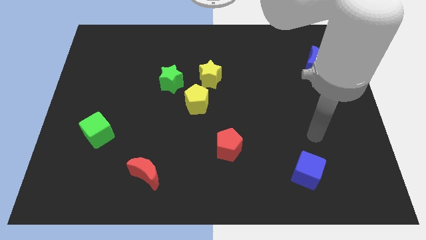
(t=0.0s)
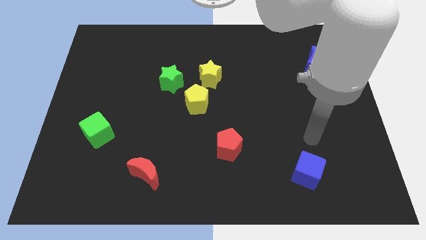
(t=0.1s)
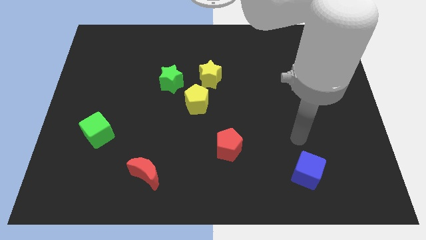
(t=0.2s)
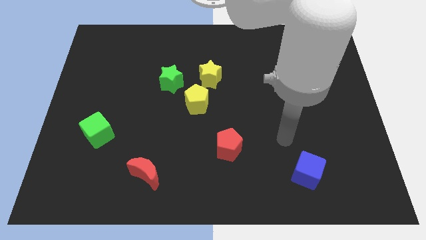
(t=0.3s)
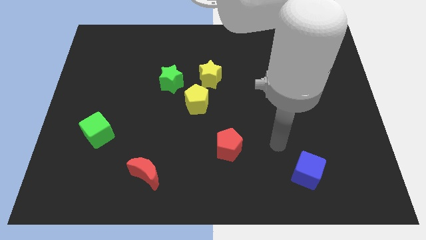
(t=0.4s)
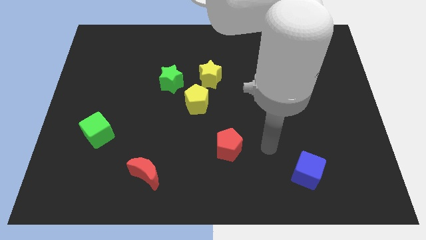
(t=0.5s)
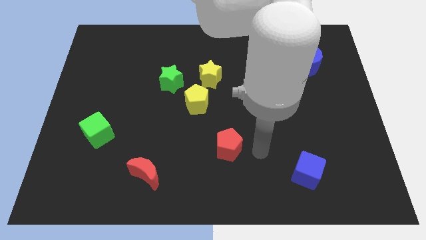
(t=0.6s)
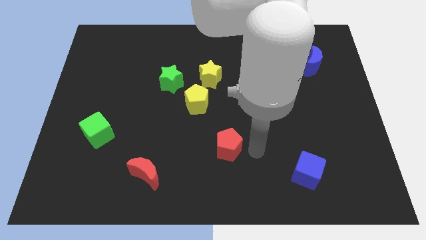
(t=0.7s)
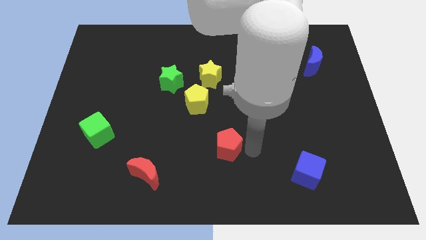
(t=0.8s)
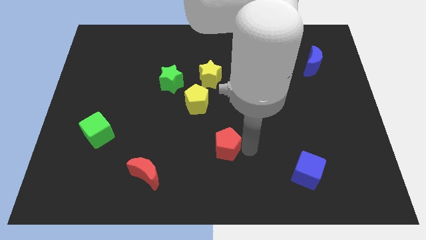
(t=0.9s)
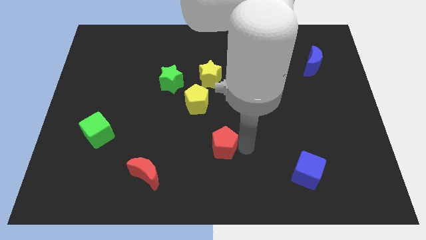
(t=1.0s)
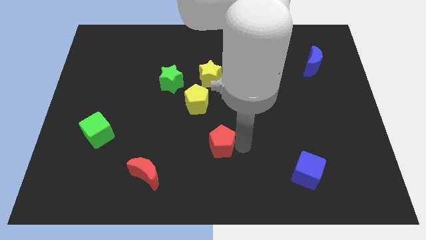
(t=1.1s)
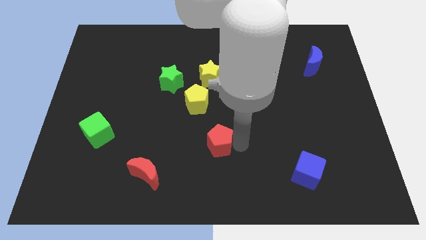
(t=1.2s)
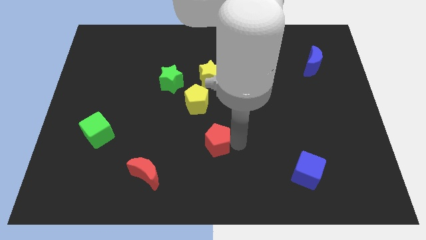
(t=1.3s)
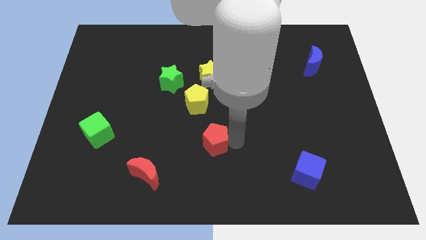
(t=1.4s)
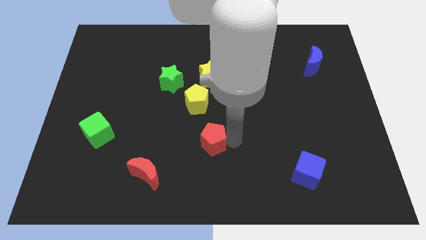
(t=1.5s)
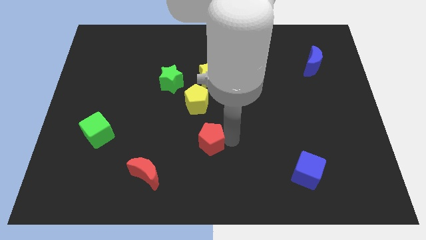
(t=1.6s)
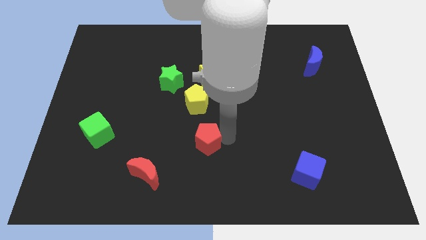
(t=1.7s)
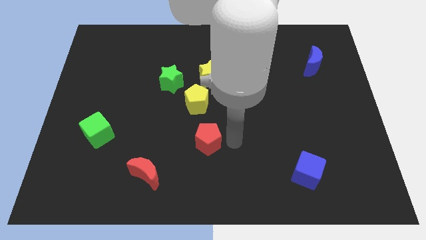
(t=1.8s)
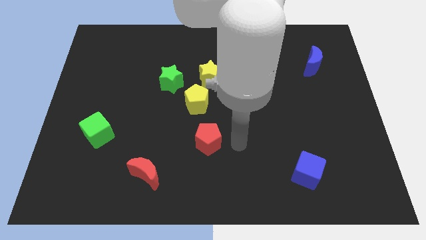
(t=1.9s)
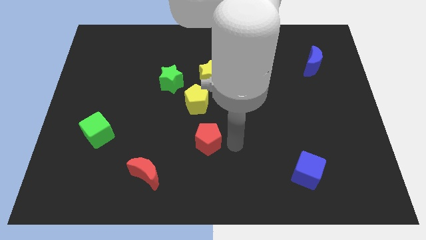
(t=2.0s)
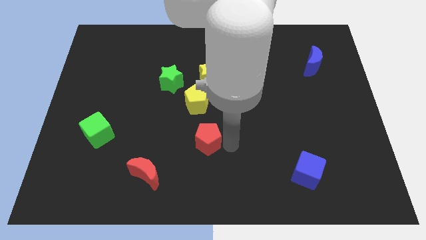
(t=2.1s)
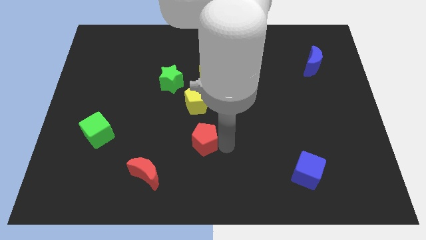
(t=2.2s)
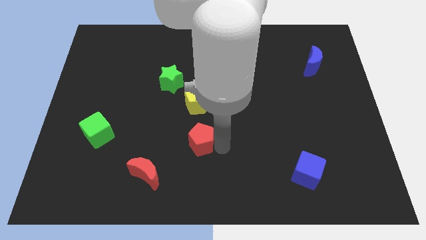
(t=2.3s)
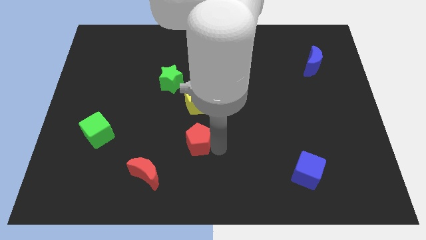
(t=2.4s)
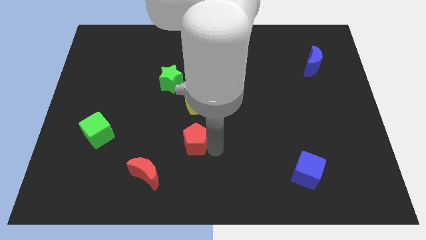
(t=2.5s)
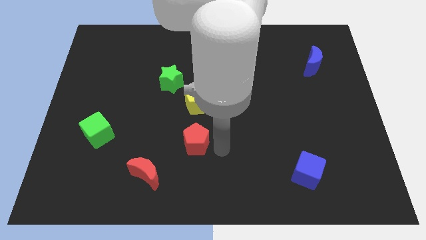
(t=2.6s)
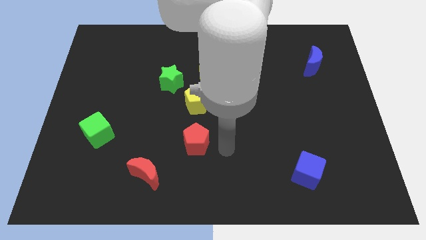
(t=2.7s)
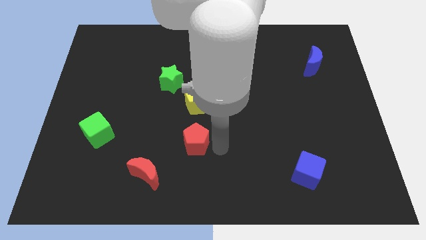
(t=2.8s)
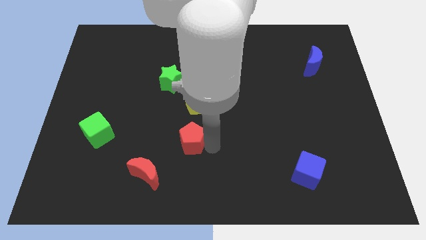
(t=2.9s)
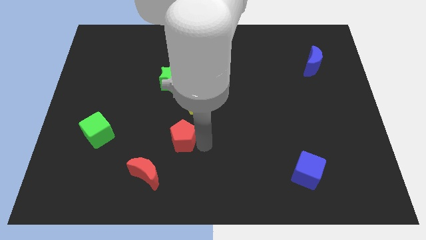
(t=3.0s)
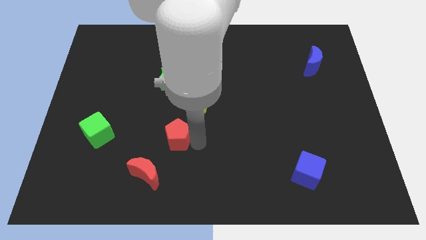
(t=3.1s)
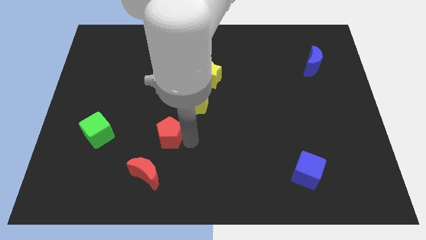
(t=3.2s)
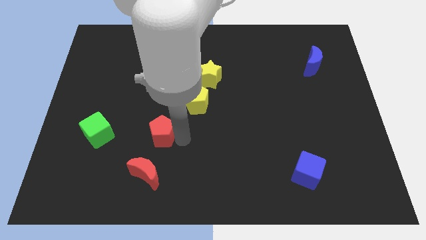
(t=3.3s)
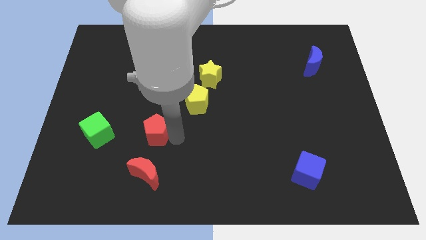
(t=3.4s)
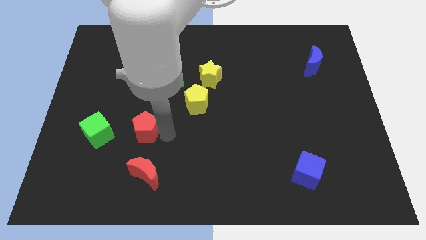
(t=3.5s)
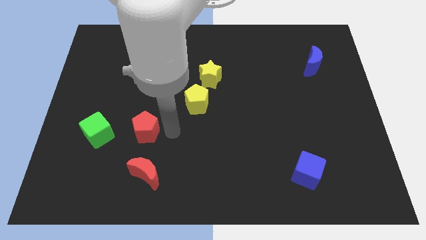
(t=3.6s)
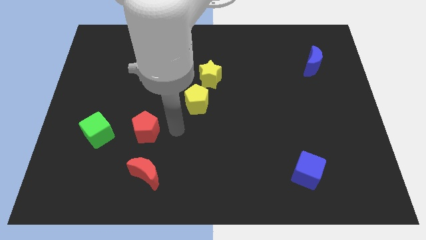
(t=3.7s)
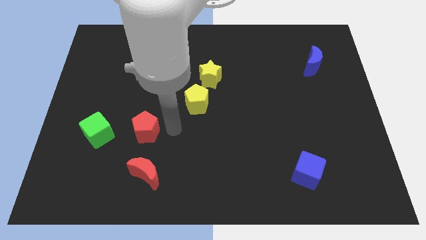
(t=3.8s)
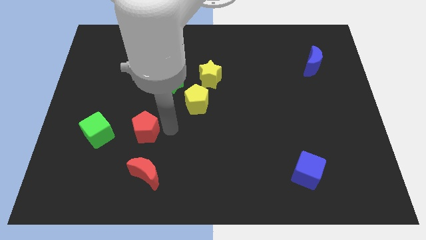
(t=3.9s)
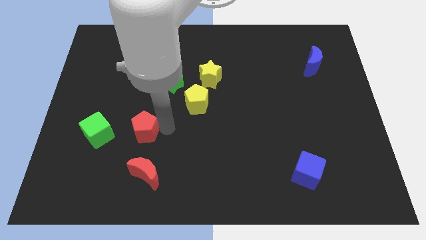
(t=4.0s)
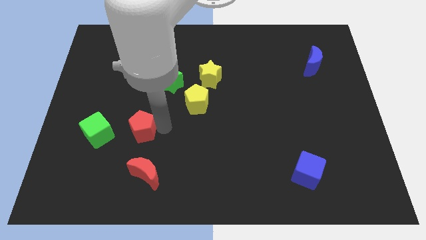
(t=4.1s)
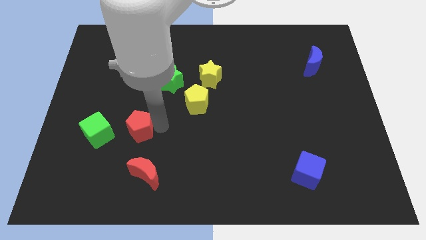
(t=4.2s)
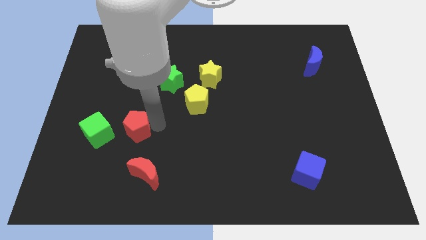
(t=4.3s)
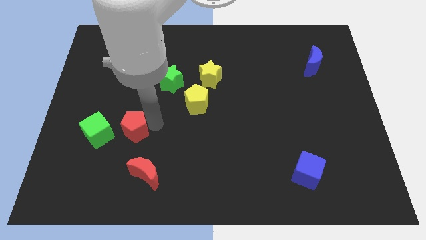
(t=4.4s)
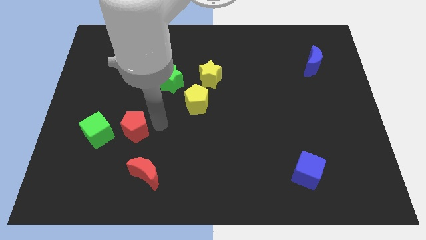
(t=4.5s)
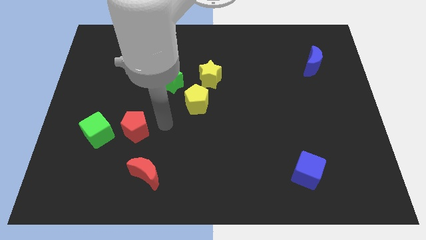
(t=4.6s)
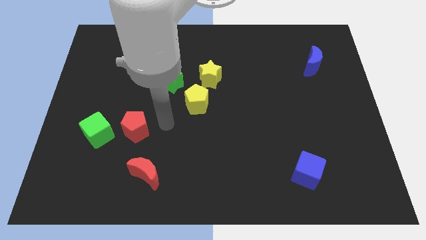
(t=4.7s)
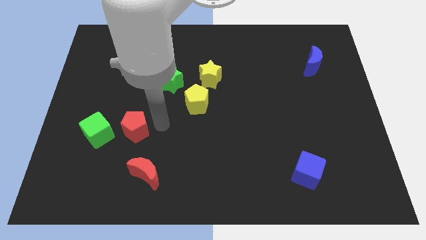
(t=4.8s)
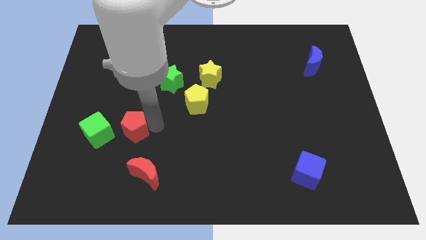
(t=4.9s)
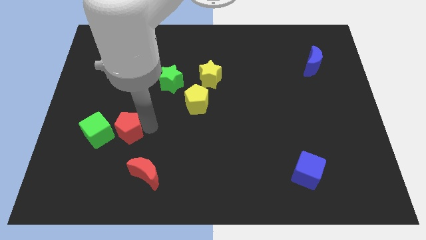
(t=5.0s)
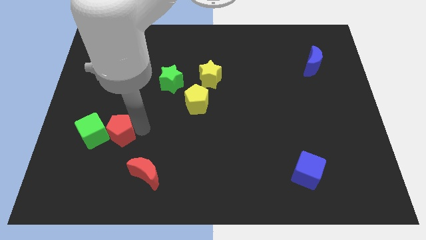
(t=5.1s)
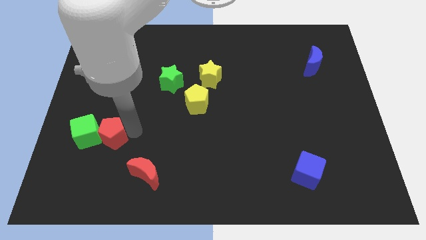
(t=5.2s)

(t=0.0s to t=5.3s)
push the red pentagon to the green cube

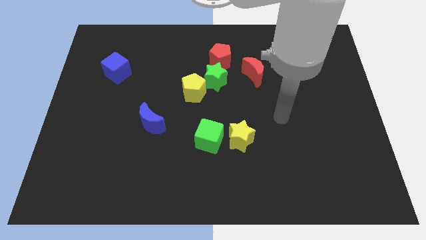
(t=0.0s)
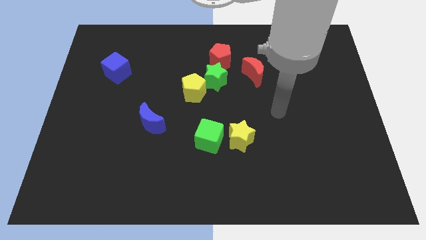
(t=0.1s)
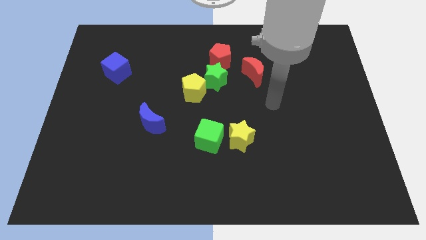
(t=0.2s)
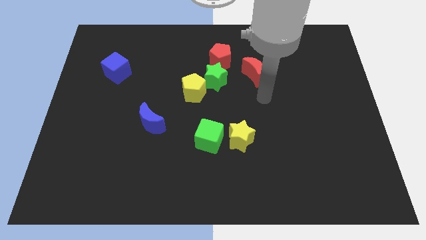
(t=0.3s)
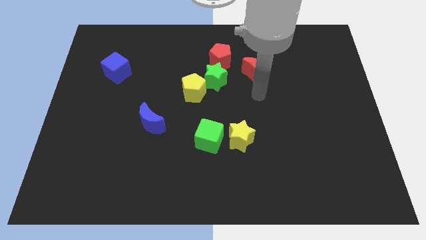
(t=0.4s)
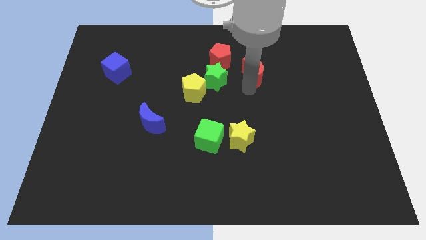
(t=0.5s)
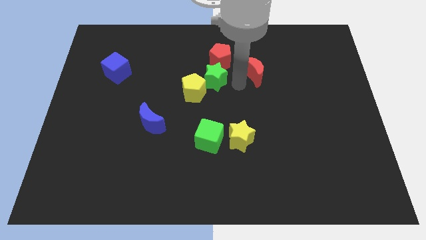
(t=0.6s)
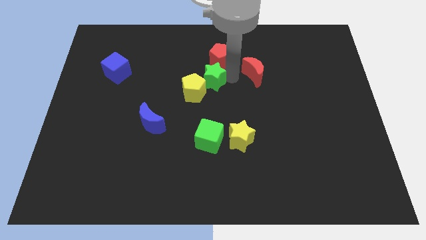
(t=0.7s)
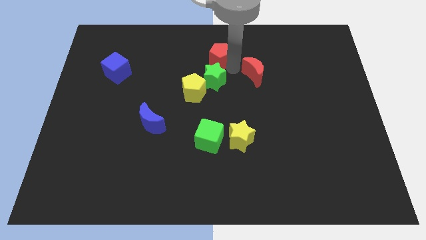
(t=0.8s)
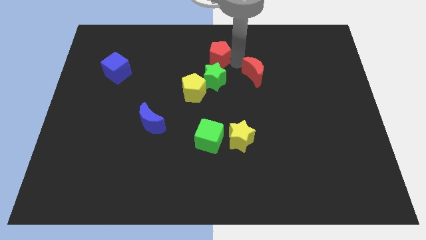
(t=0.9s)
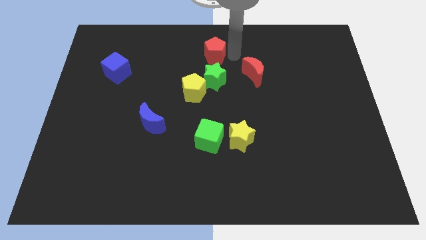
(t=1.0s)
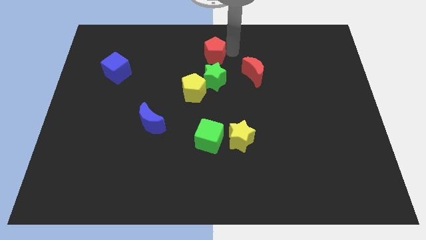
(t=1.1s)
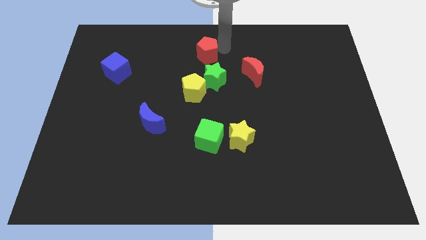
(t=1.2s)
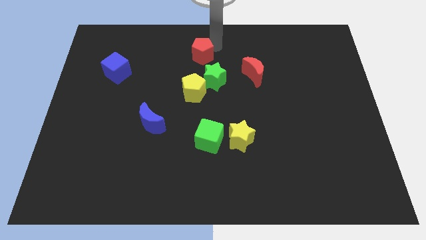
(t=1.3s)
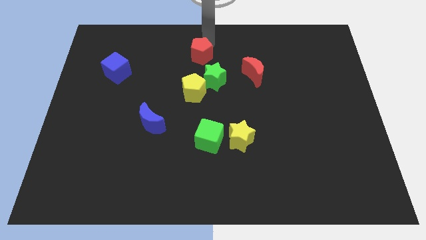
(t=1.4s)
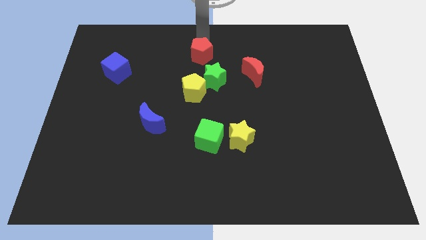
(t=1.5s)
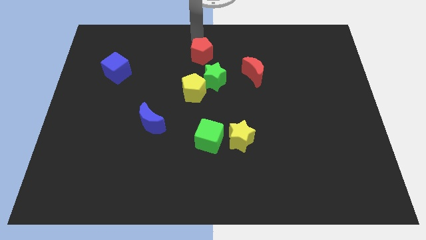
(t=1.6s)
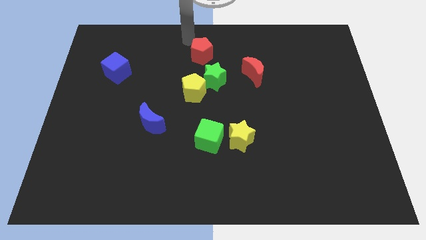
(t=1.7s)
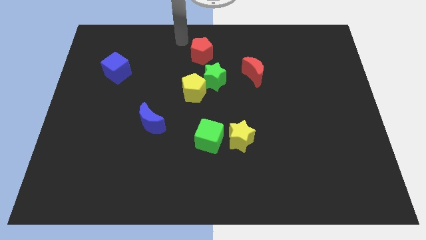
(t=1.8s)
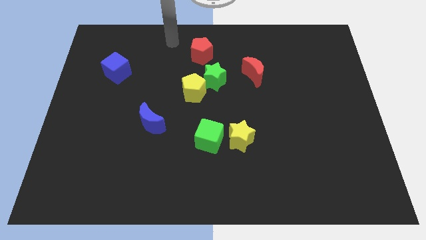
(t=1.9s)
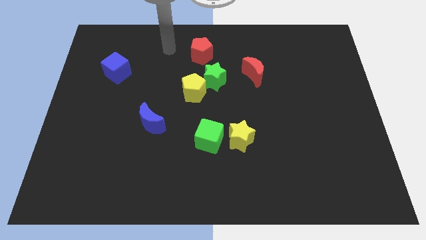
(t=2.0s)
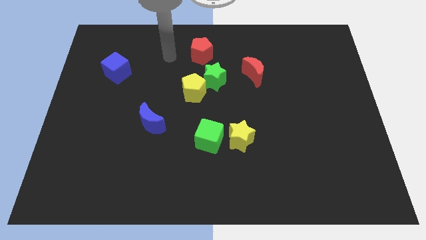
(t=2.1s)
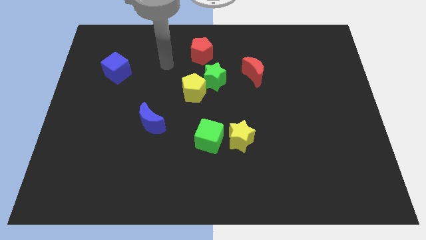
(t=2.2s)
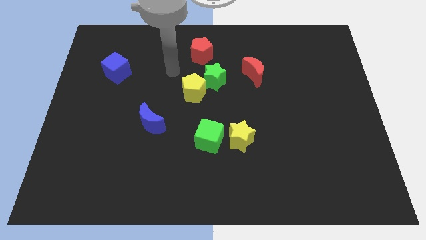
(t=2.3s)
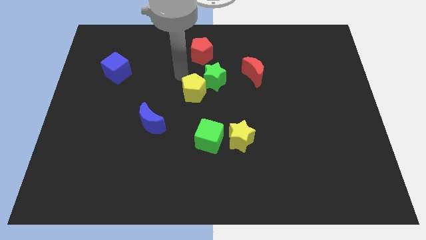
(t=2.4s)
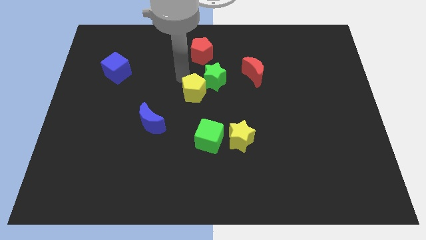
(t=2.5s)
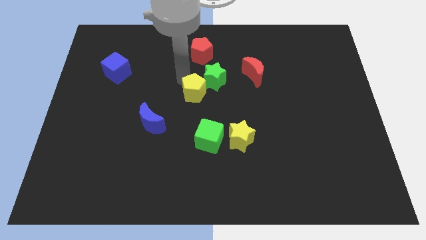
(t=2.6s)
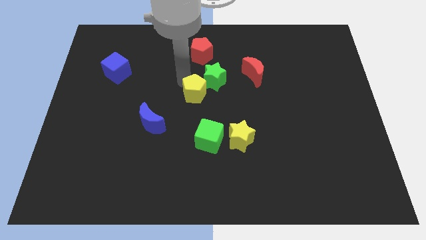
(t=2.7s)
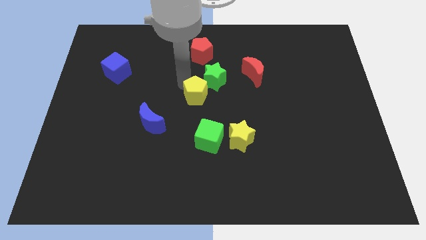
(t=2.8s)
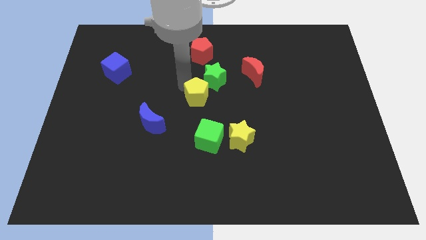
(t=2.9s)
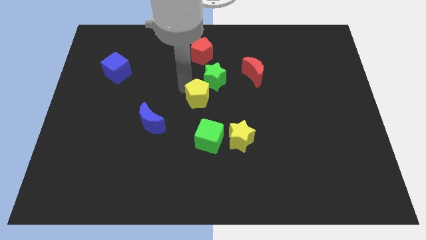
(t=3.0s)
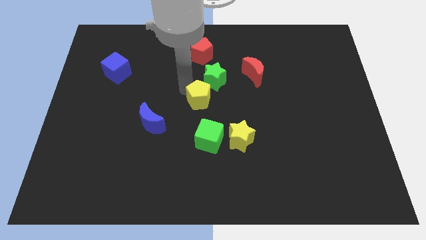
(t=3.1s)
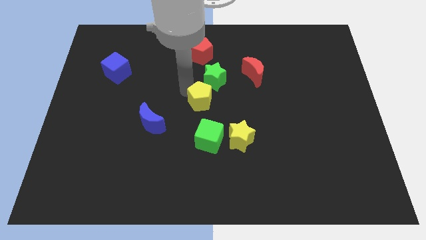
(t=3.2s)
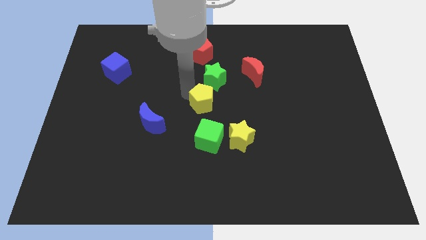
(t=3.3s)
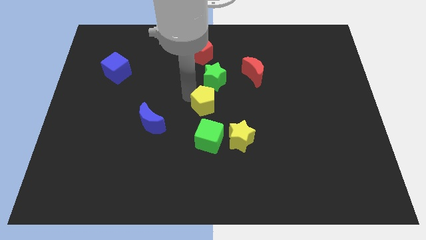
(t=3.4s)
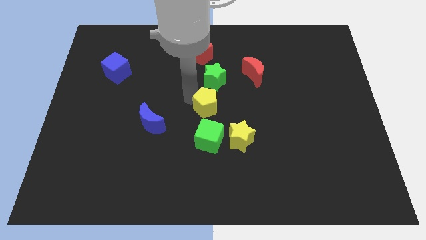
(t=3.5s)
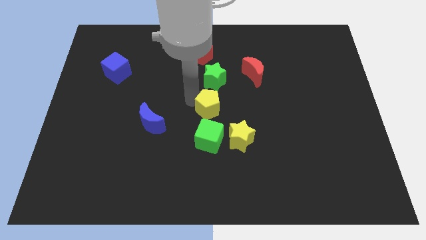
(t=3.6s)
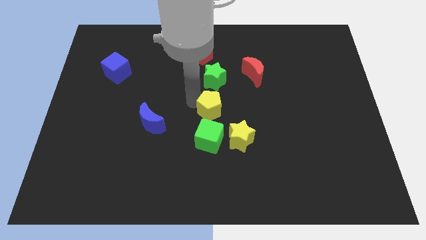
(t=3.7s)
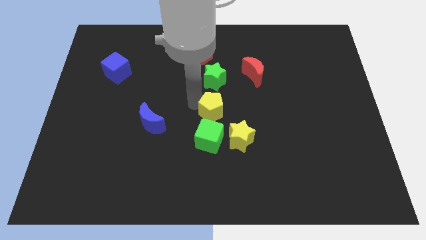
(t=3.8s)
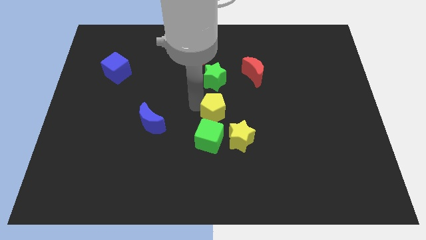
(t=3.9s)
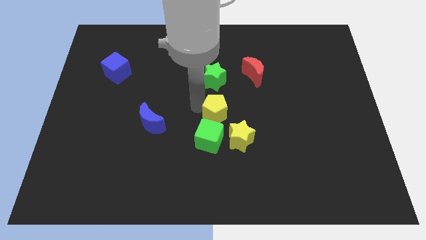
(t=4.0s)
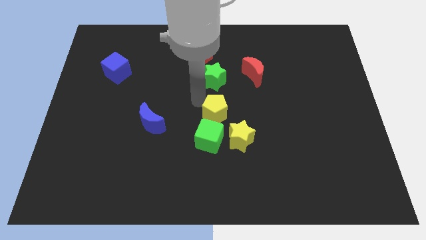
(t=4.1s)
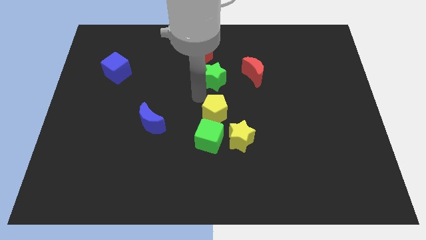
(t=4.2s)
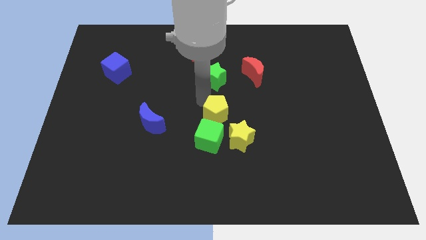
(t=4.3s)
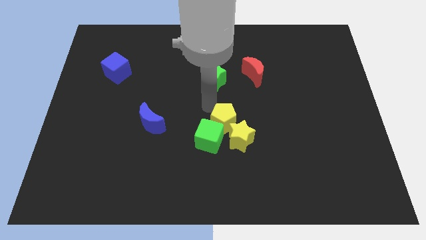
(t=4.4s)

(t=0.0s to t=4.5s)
move the yellow pentagon towards the yellow star
